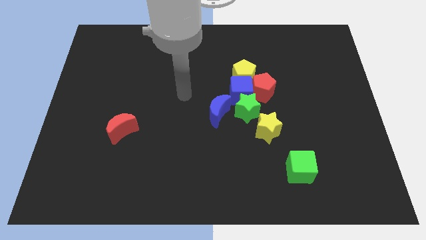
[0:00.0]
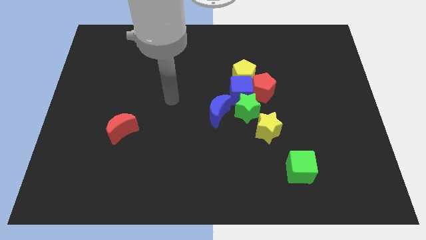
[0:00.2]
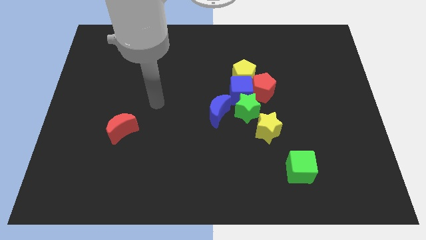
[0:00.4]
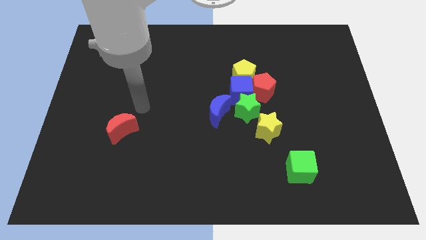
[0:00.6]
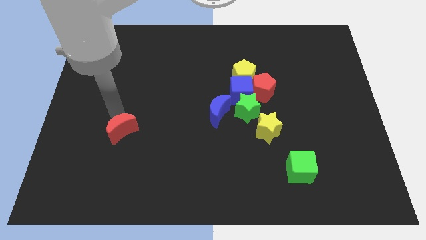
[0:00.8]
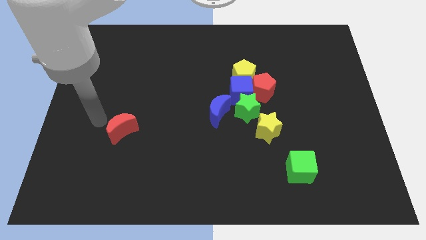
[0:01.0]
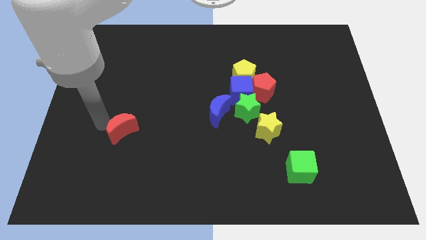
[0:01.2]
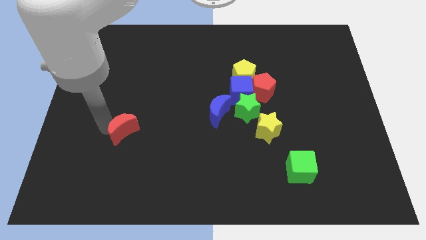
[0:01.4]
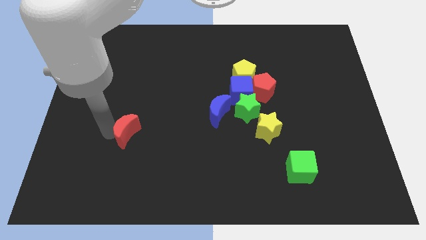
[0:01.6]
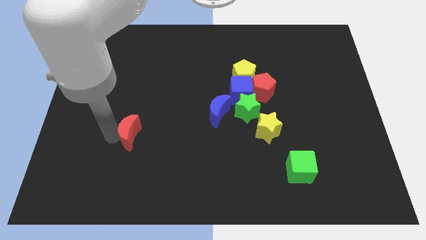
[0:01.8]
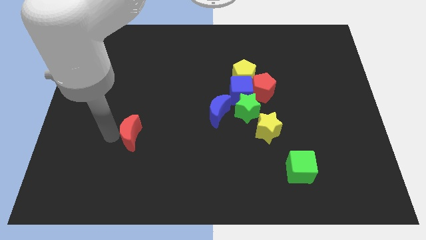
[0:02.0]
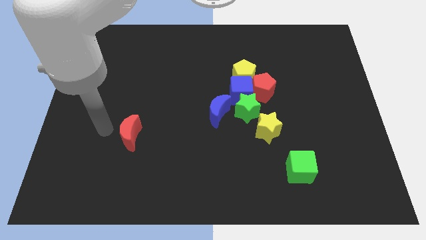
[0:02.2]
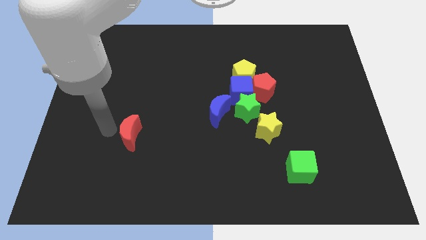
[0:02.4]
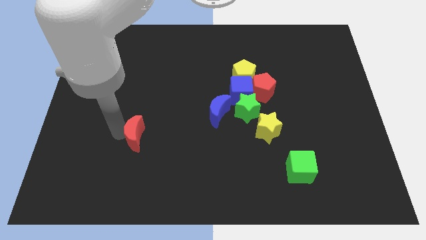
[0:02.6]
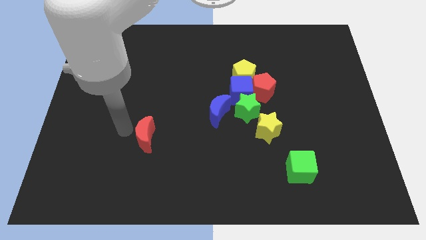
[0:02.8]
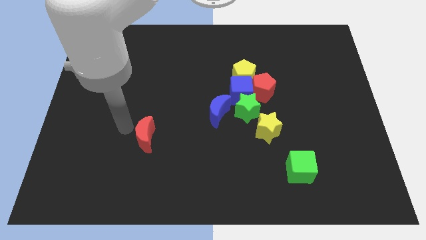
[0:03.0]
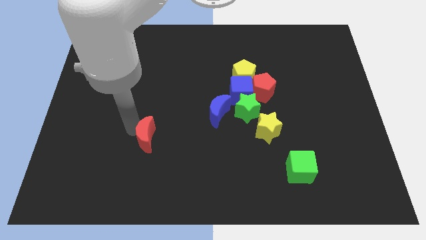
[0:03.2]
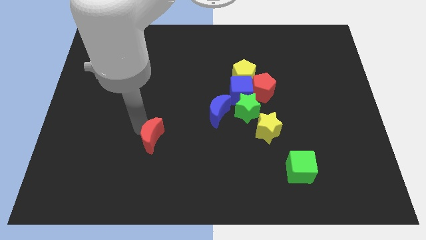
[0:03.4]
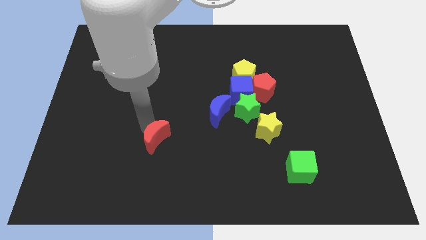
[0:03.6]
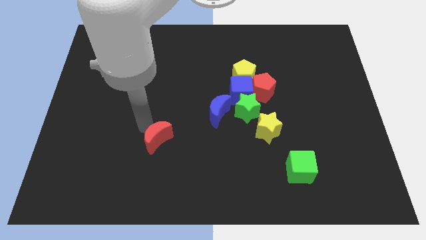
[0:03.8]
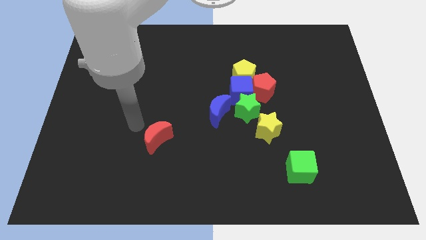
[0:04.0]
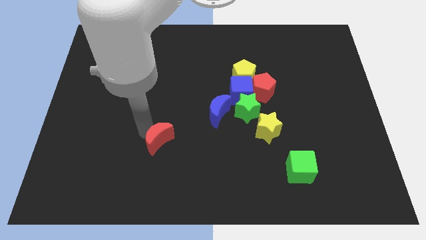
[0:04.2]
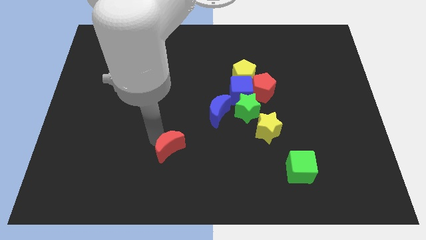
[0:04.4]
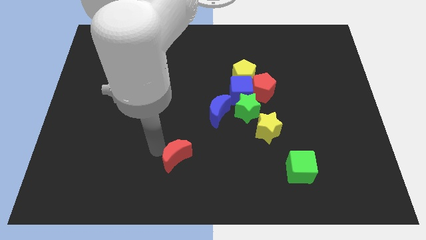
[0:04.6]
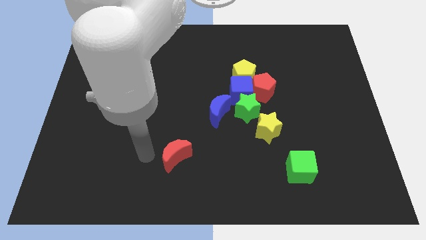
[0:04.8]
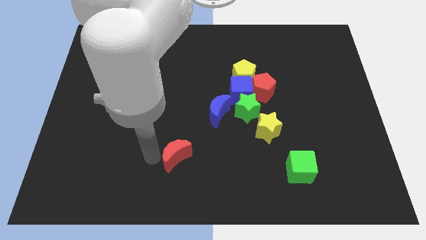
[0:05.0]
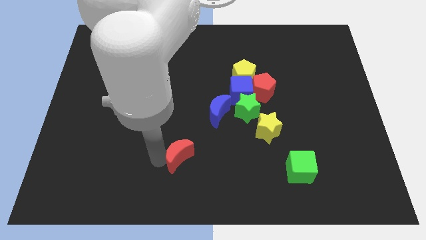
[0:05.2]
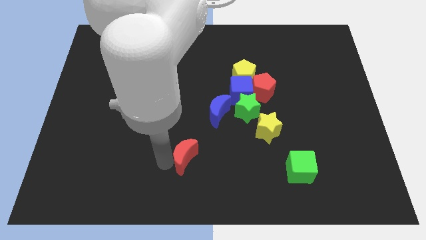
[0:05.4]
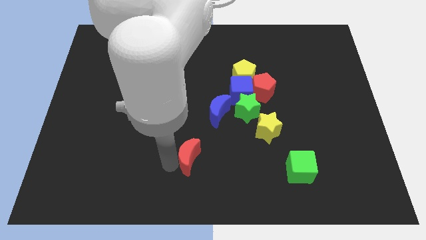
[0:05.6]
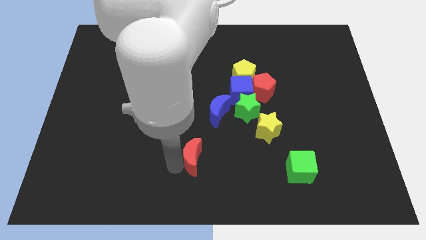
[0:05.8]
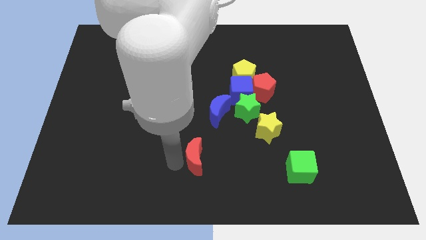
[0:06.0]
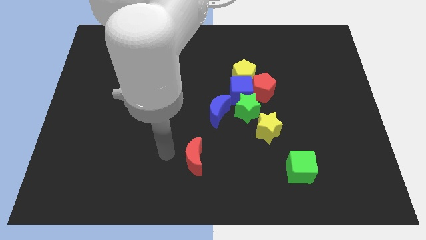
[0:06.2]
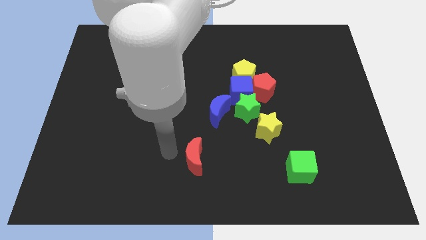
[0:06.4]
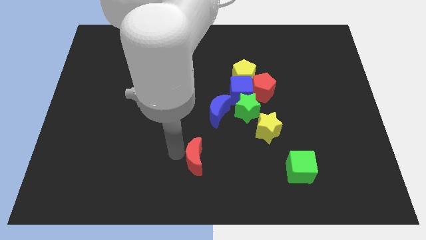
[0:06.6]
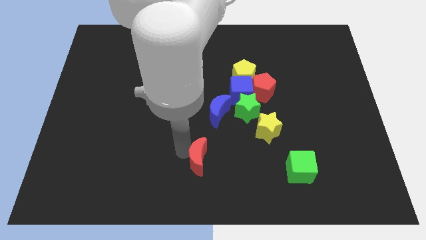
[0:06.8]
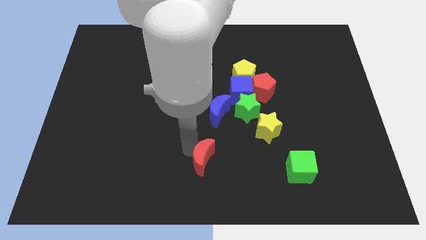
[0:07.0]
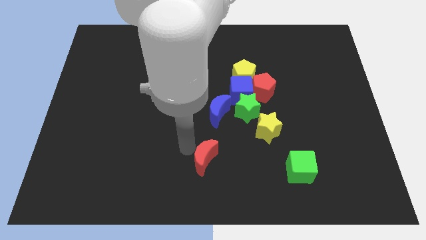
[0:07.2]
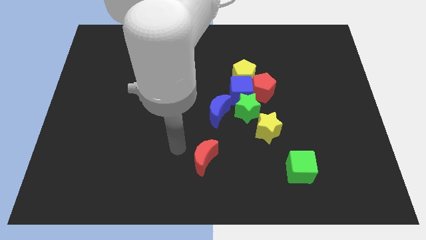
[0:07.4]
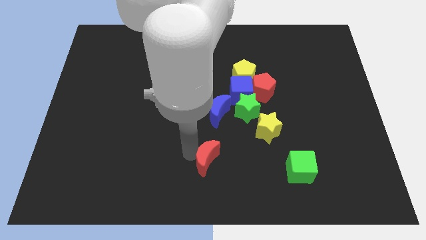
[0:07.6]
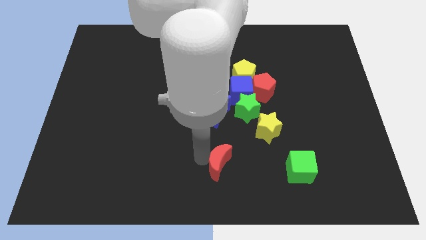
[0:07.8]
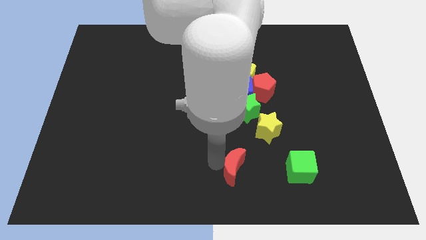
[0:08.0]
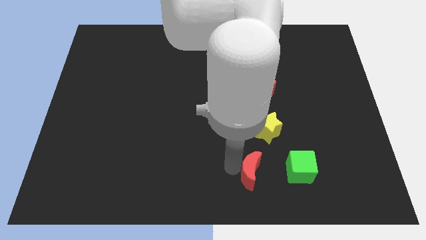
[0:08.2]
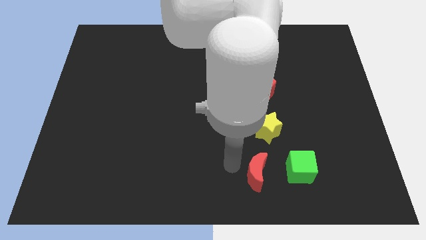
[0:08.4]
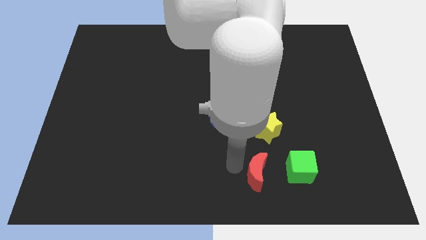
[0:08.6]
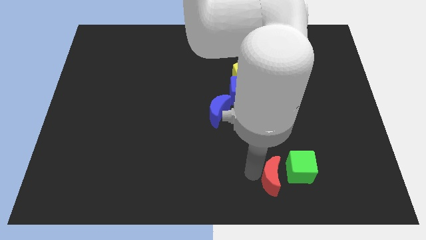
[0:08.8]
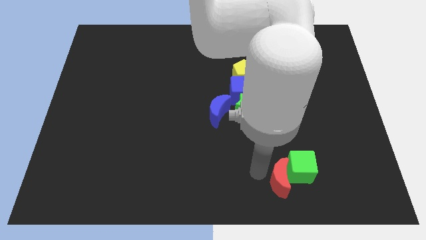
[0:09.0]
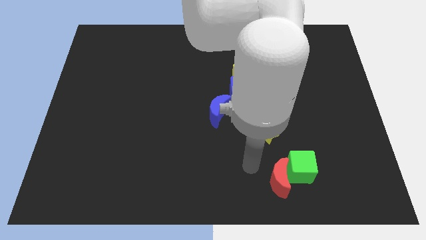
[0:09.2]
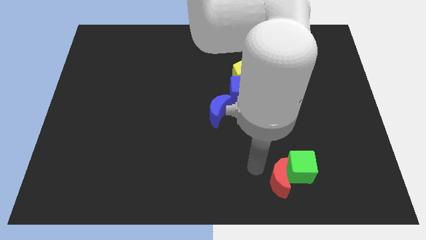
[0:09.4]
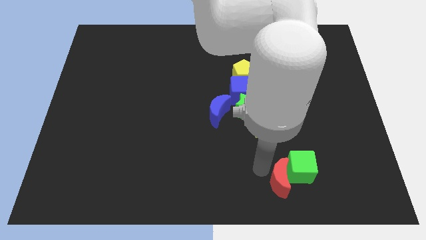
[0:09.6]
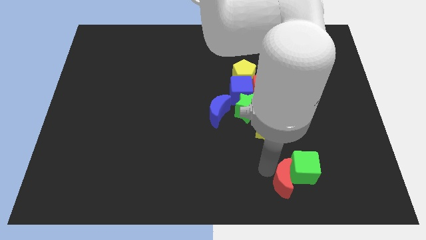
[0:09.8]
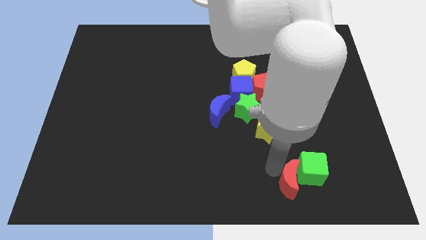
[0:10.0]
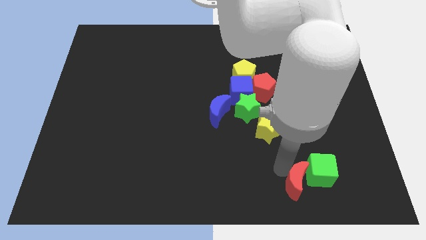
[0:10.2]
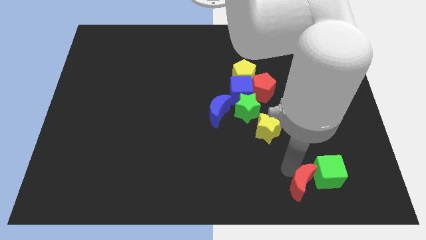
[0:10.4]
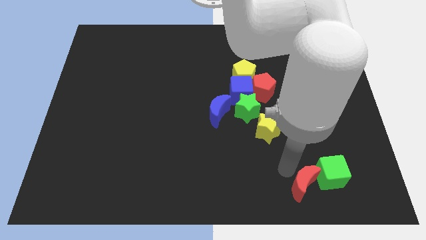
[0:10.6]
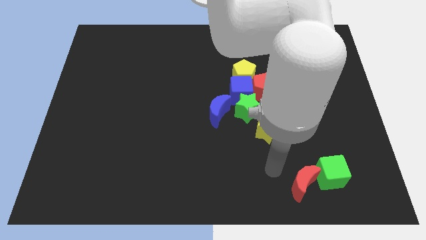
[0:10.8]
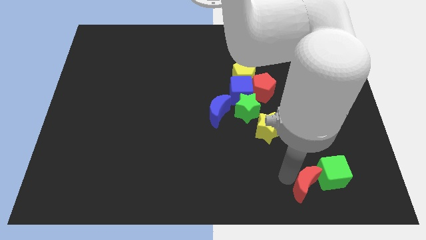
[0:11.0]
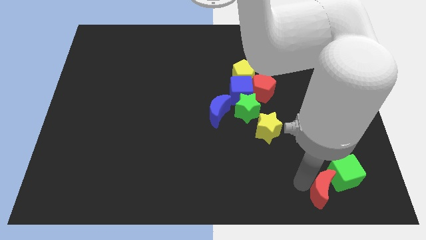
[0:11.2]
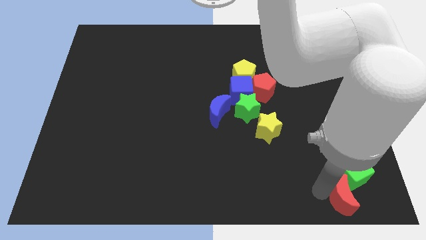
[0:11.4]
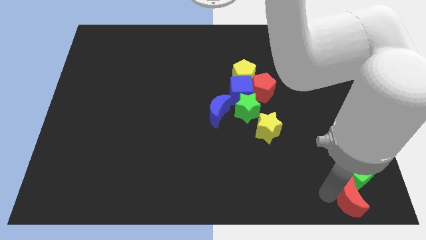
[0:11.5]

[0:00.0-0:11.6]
move the red moon to the lower right corner
